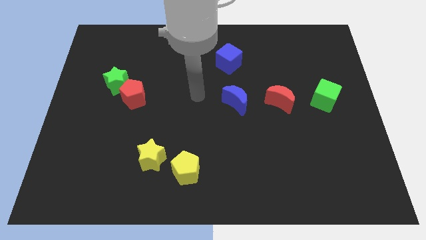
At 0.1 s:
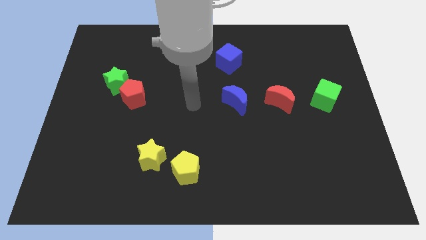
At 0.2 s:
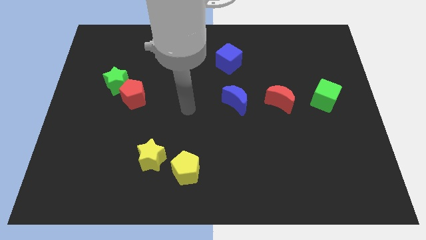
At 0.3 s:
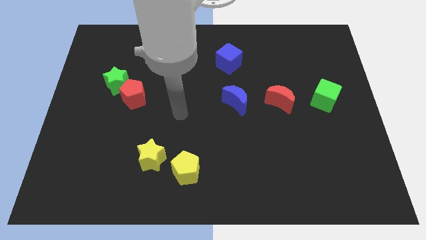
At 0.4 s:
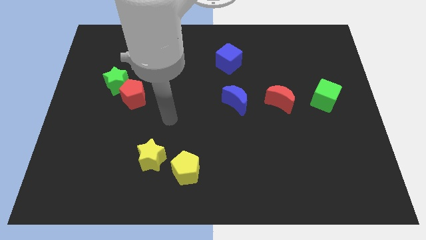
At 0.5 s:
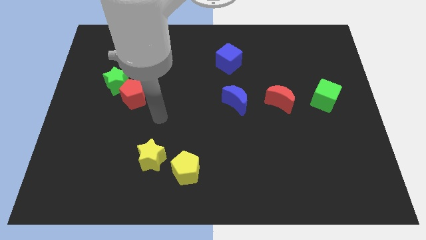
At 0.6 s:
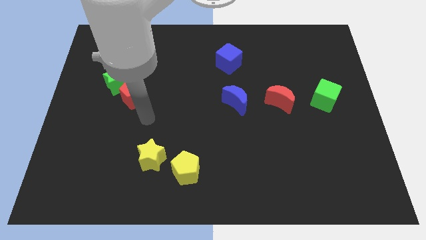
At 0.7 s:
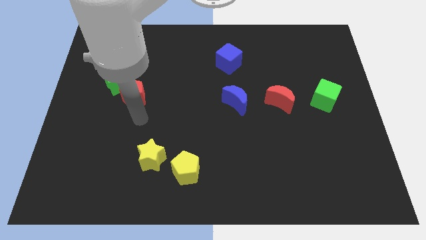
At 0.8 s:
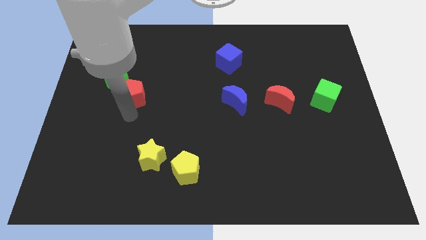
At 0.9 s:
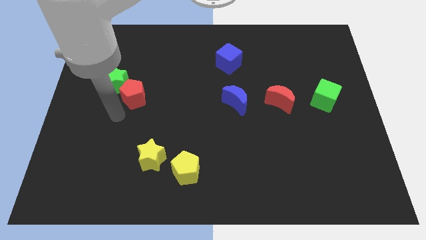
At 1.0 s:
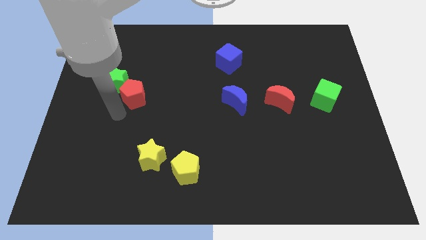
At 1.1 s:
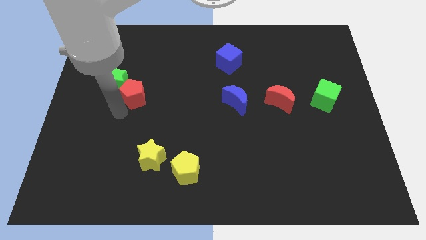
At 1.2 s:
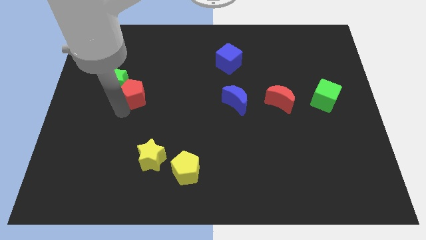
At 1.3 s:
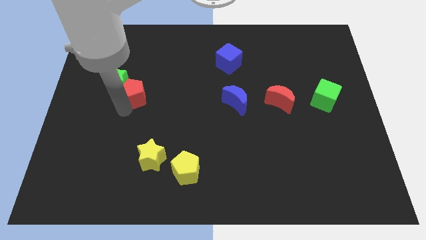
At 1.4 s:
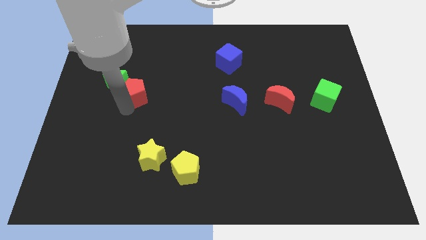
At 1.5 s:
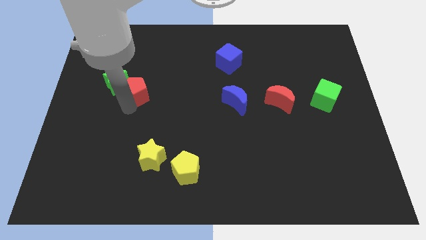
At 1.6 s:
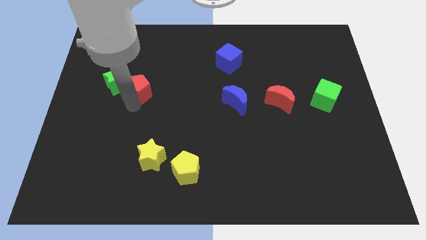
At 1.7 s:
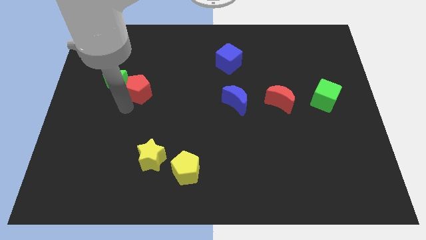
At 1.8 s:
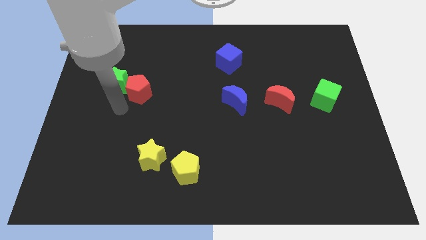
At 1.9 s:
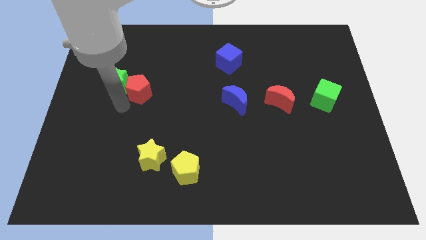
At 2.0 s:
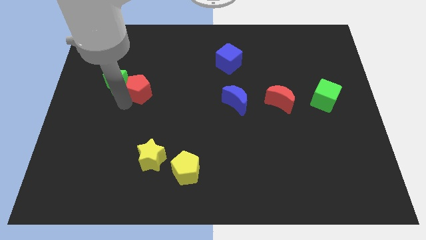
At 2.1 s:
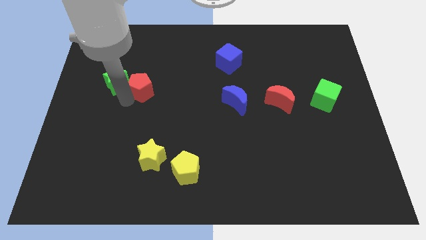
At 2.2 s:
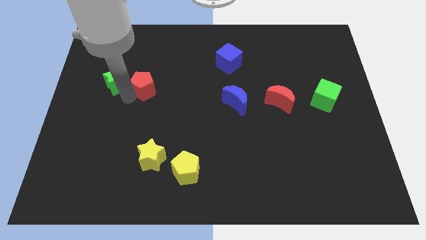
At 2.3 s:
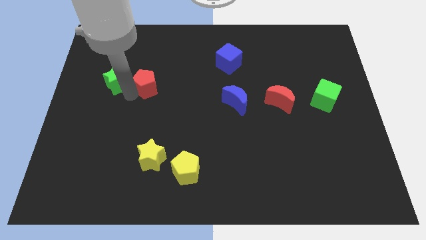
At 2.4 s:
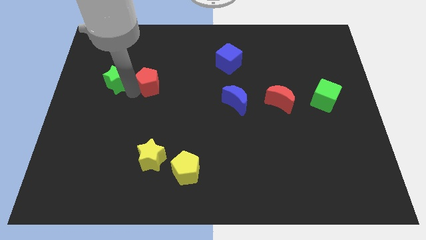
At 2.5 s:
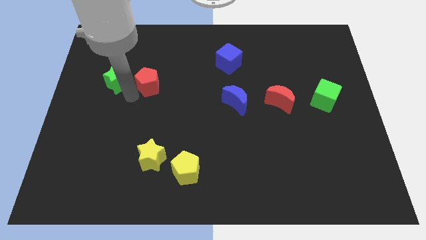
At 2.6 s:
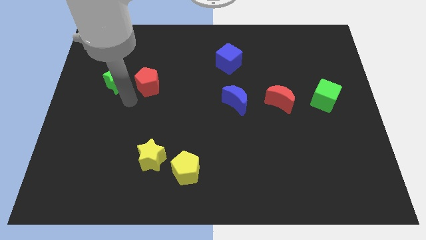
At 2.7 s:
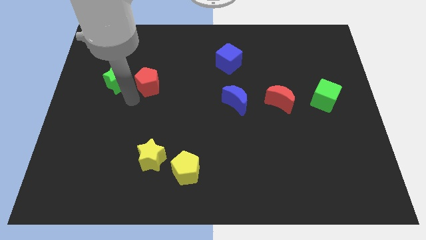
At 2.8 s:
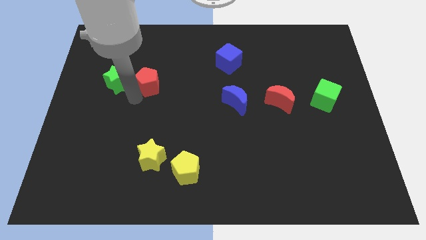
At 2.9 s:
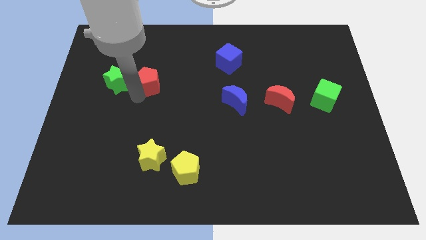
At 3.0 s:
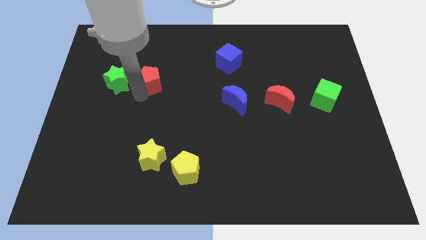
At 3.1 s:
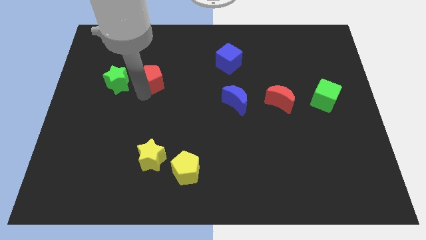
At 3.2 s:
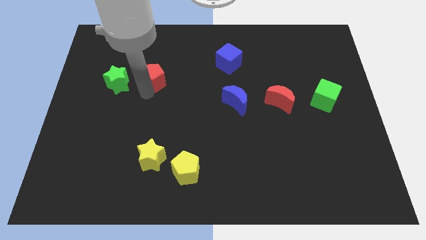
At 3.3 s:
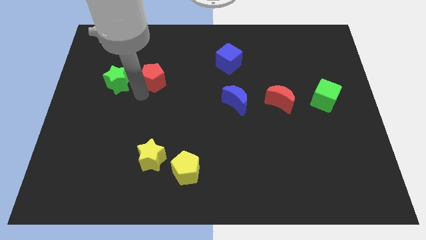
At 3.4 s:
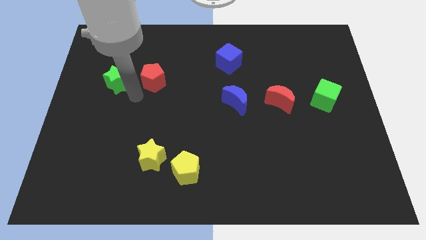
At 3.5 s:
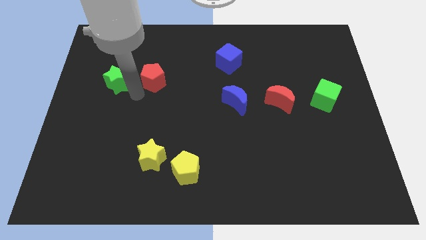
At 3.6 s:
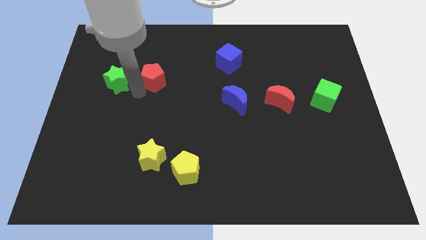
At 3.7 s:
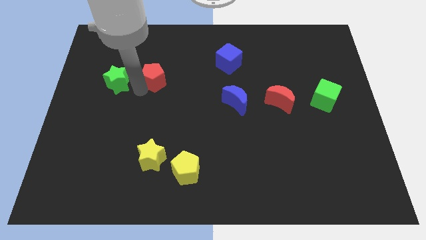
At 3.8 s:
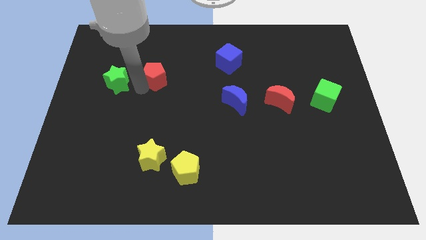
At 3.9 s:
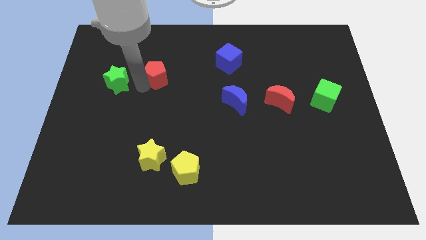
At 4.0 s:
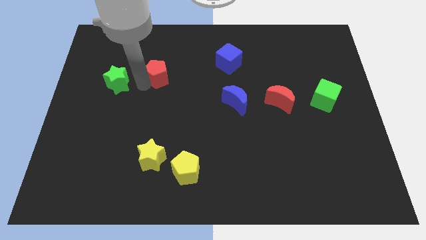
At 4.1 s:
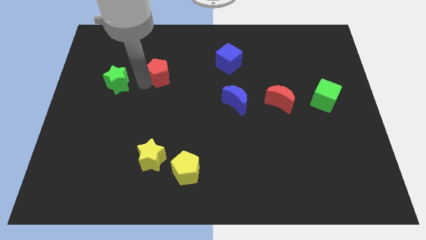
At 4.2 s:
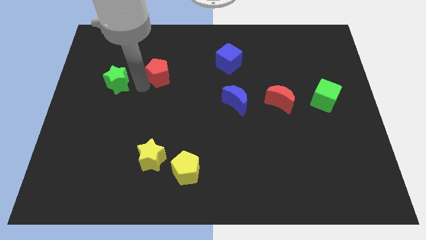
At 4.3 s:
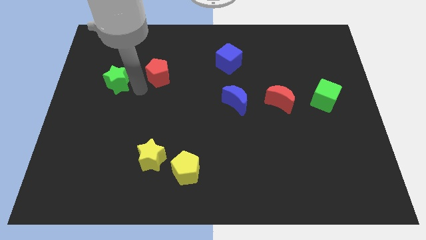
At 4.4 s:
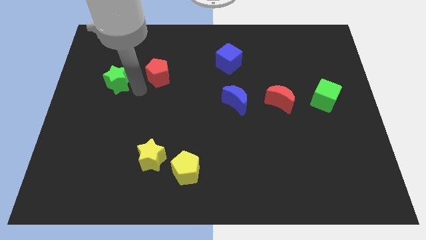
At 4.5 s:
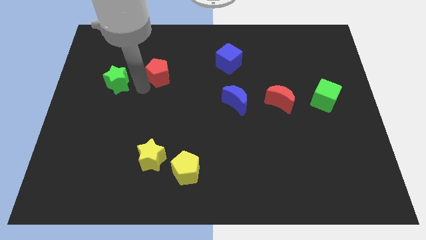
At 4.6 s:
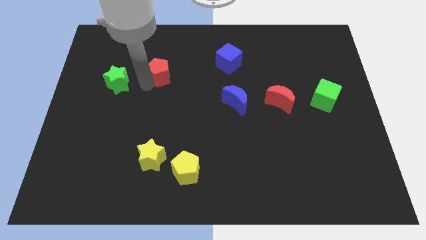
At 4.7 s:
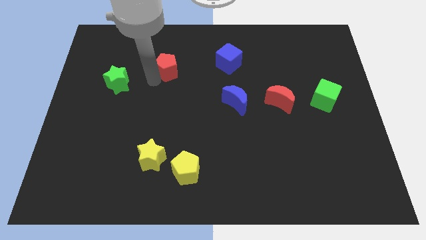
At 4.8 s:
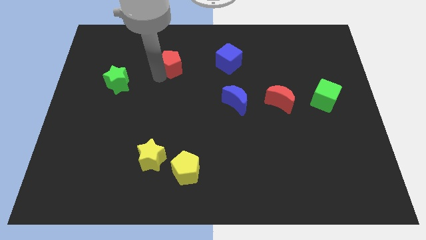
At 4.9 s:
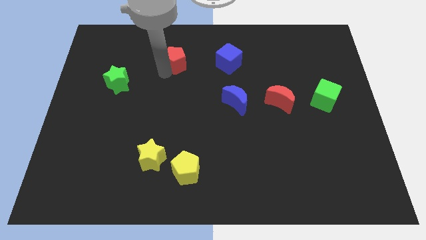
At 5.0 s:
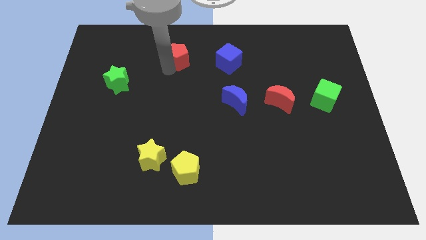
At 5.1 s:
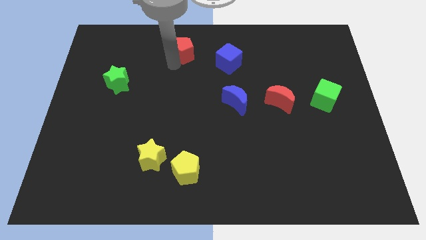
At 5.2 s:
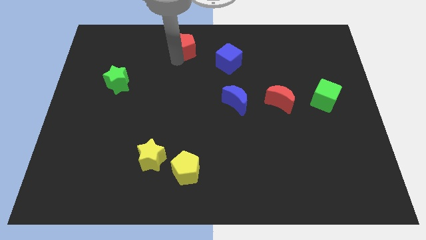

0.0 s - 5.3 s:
move the red pentagon to the top

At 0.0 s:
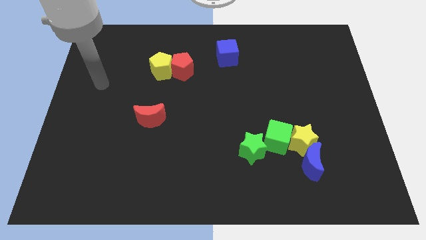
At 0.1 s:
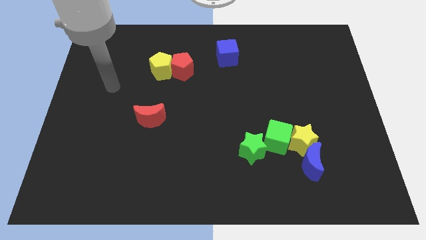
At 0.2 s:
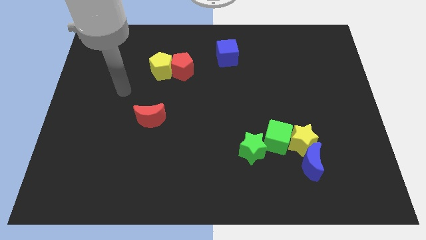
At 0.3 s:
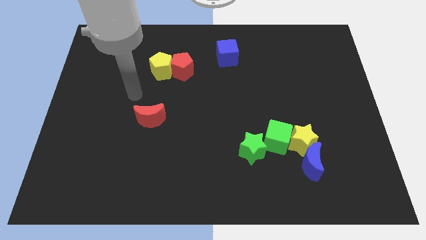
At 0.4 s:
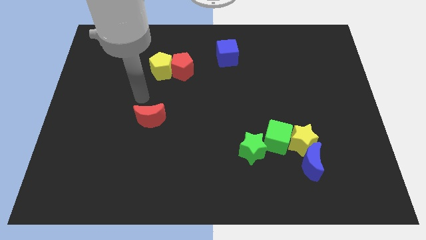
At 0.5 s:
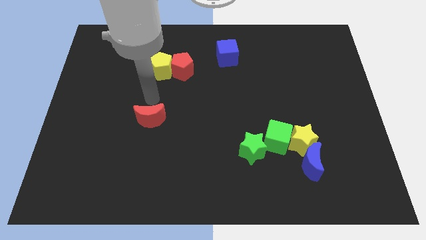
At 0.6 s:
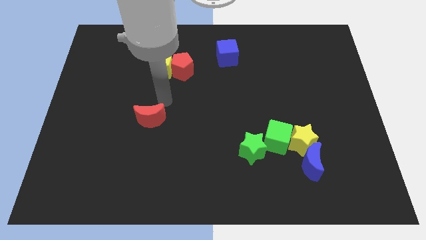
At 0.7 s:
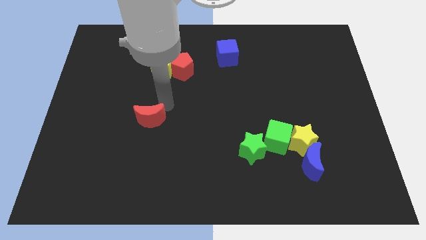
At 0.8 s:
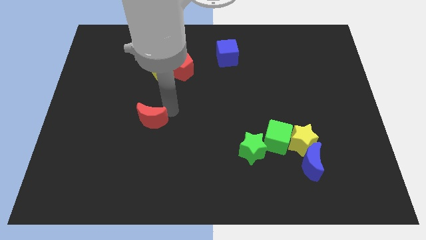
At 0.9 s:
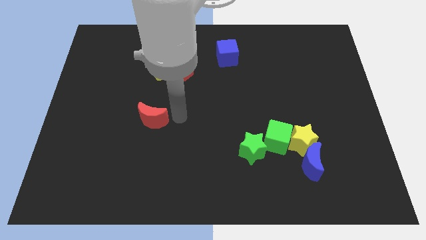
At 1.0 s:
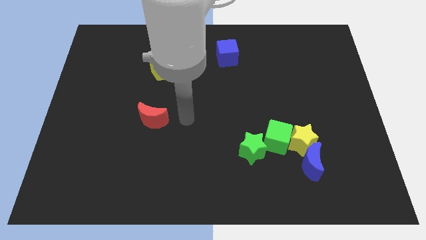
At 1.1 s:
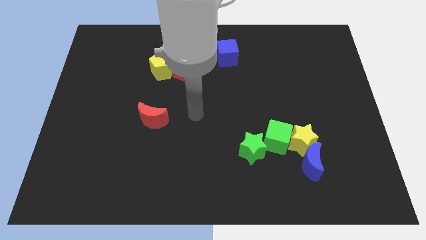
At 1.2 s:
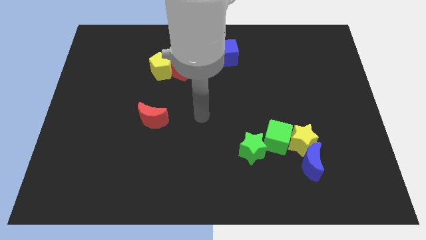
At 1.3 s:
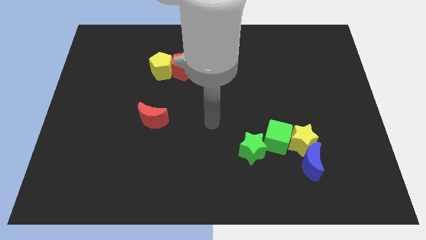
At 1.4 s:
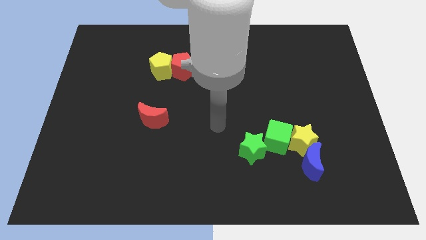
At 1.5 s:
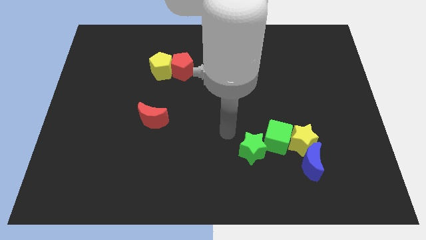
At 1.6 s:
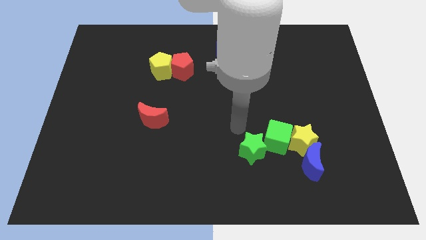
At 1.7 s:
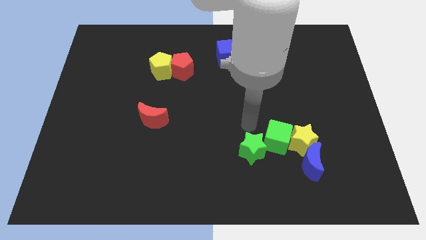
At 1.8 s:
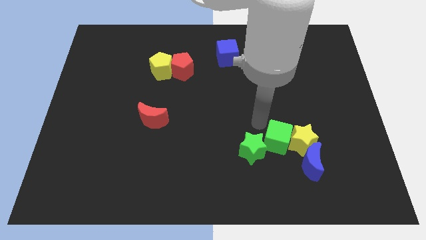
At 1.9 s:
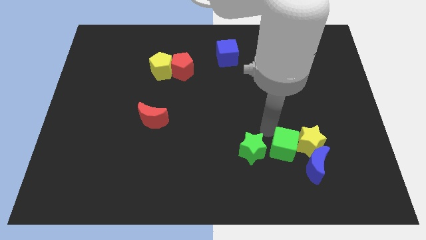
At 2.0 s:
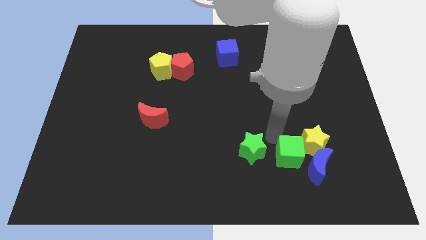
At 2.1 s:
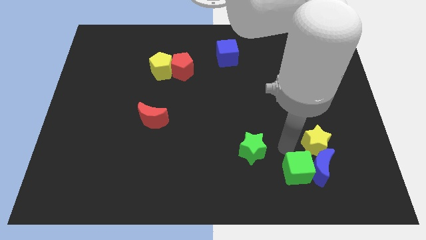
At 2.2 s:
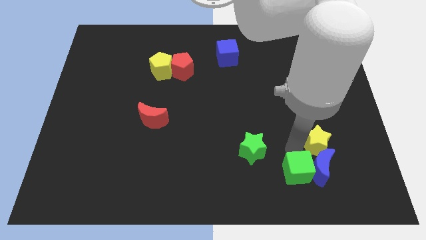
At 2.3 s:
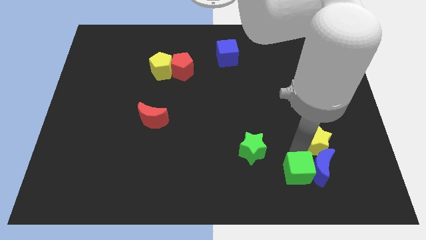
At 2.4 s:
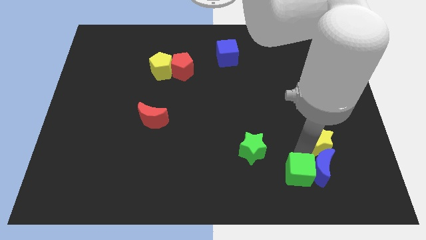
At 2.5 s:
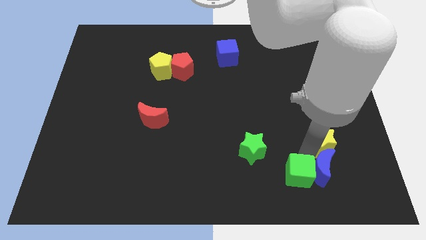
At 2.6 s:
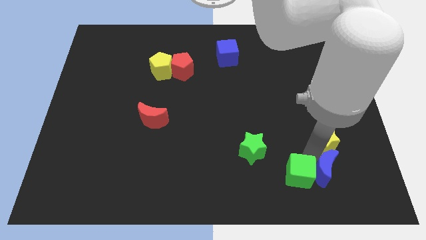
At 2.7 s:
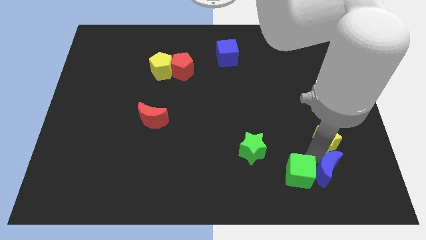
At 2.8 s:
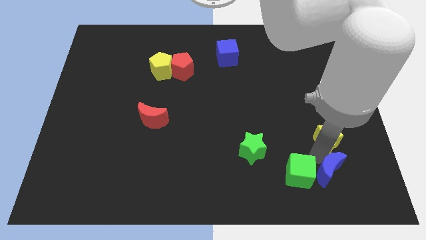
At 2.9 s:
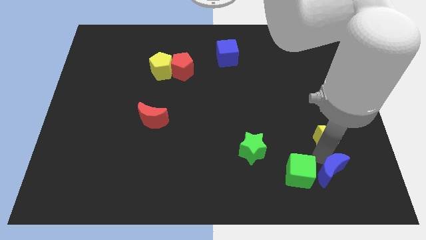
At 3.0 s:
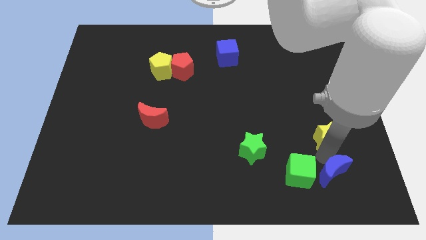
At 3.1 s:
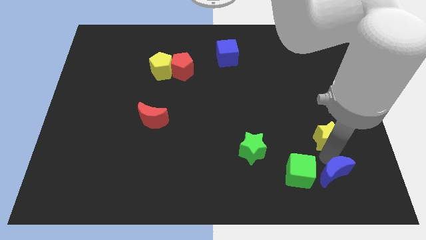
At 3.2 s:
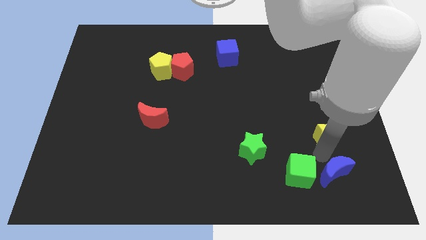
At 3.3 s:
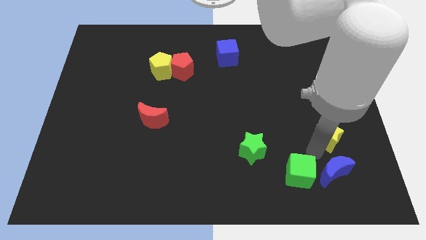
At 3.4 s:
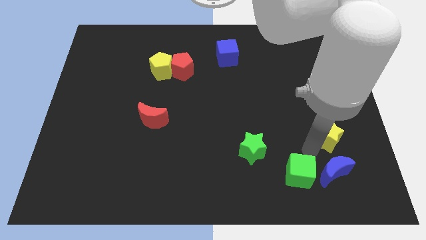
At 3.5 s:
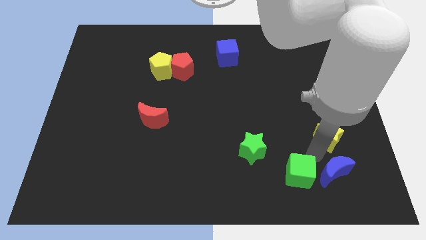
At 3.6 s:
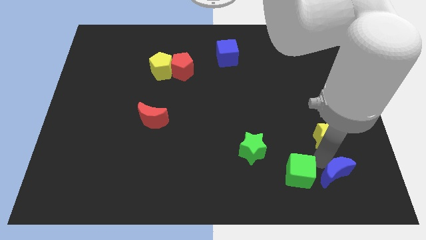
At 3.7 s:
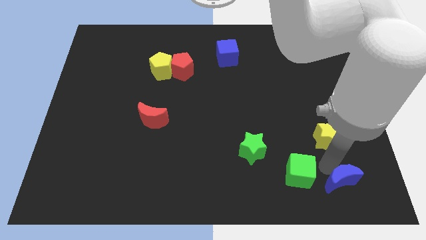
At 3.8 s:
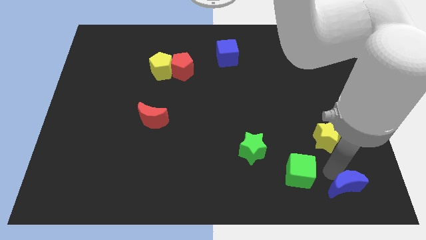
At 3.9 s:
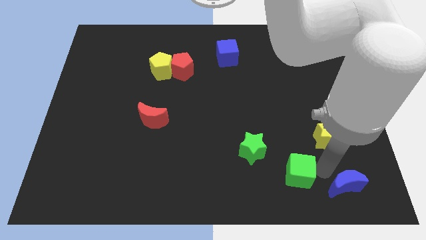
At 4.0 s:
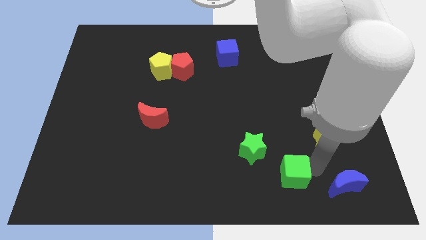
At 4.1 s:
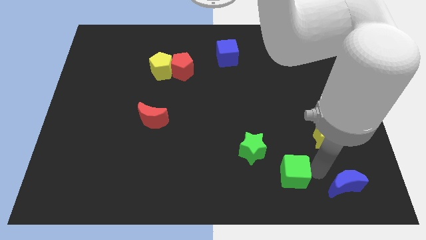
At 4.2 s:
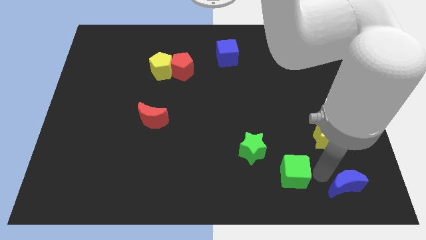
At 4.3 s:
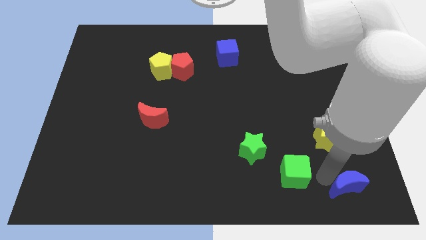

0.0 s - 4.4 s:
push the blue moon to the bottom right corner
